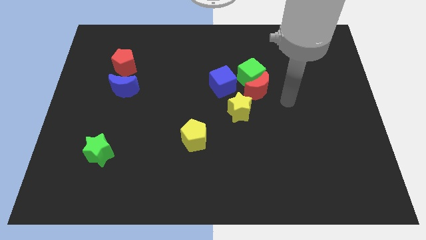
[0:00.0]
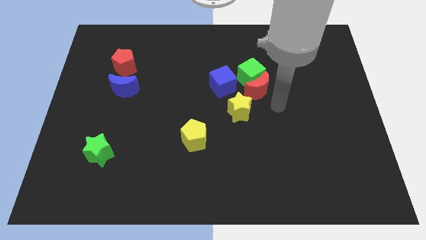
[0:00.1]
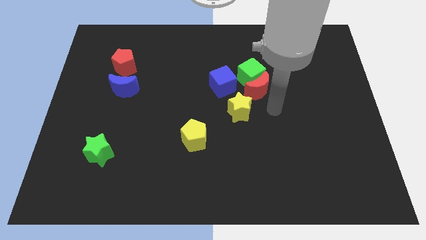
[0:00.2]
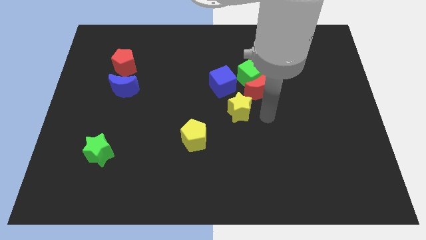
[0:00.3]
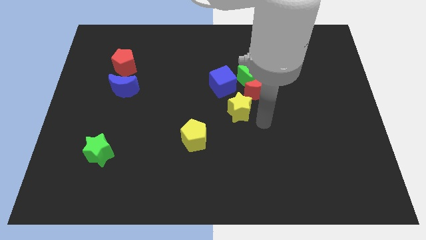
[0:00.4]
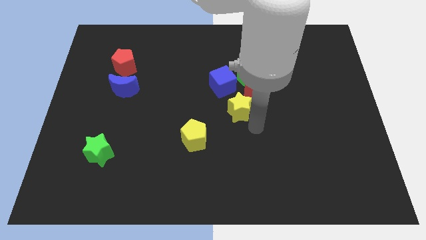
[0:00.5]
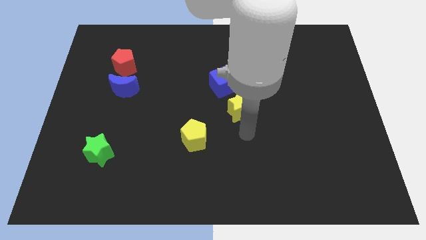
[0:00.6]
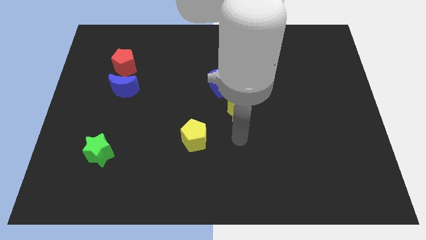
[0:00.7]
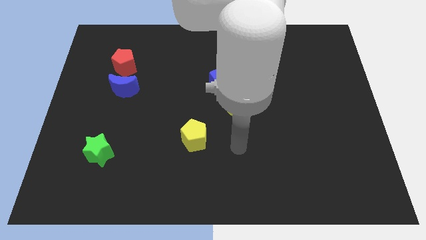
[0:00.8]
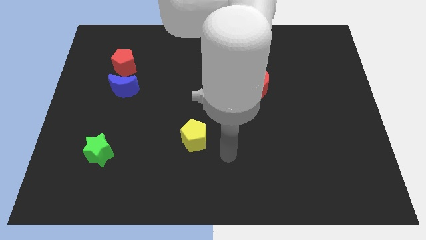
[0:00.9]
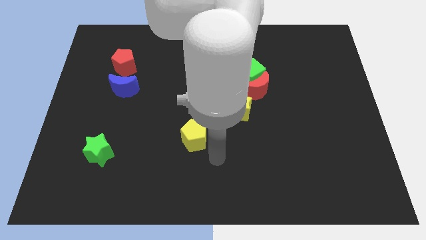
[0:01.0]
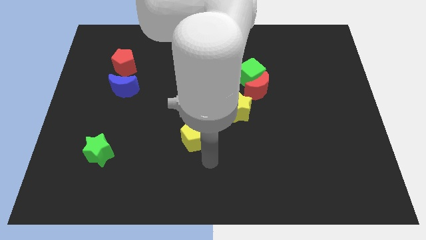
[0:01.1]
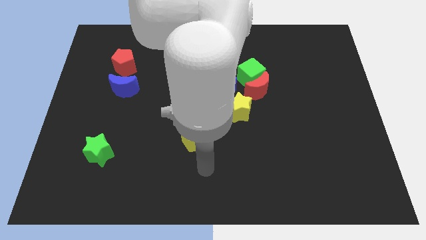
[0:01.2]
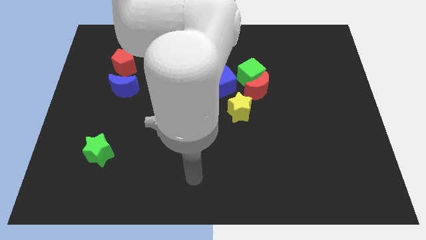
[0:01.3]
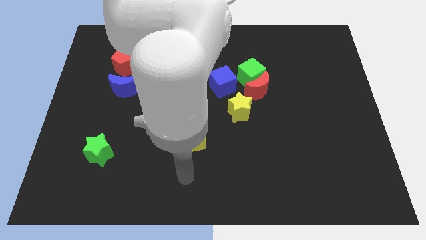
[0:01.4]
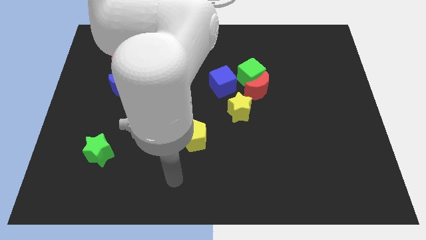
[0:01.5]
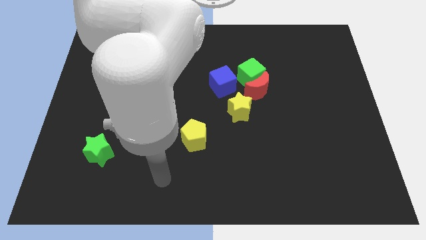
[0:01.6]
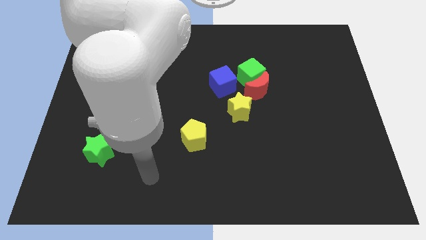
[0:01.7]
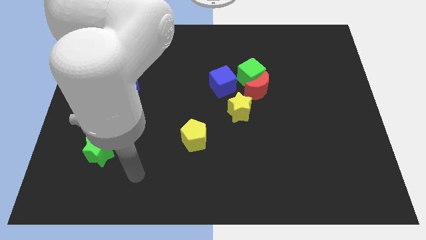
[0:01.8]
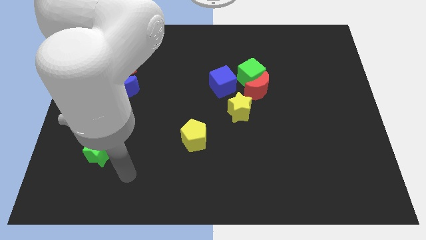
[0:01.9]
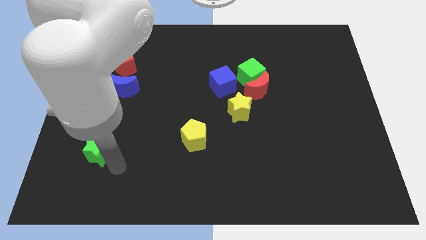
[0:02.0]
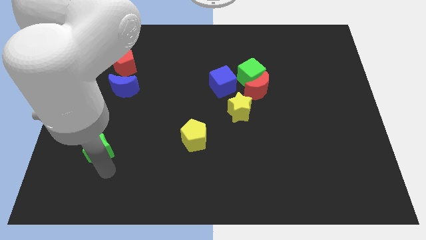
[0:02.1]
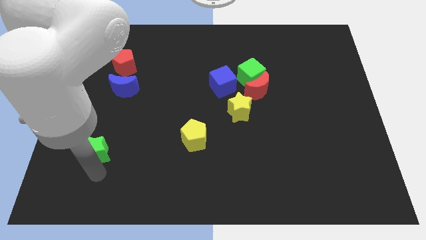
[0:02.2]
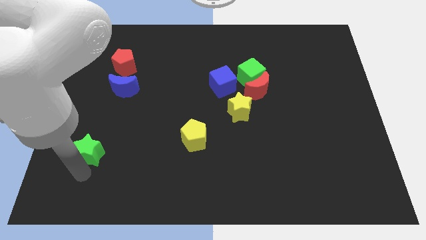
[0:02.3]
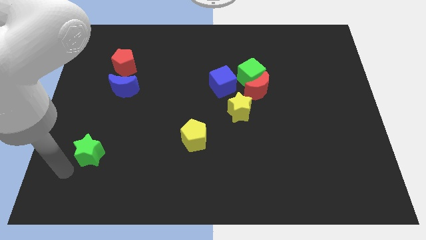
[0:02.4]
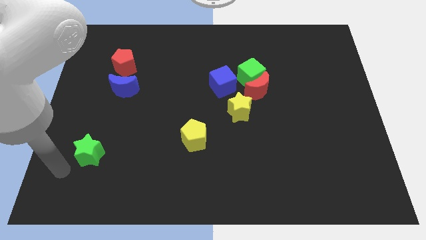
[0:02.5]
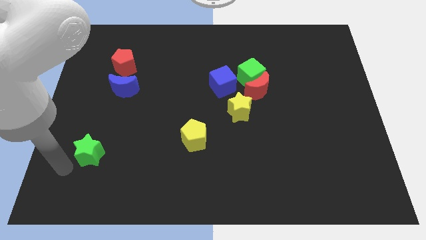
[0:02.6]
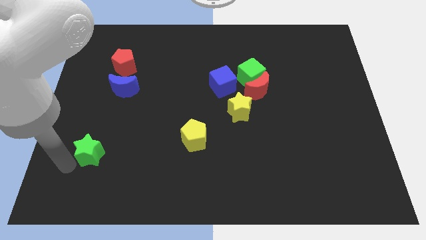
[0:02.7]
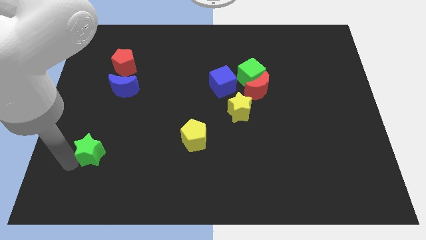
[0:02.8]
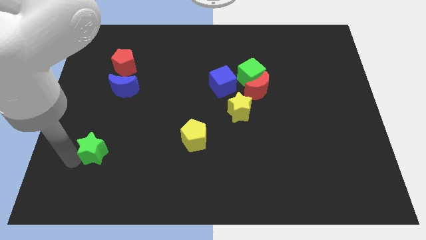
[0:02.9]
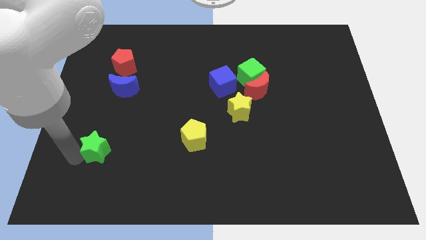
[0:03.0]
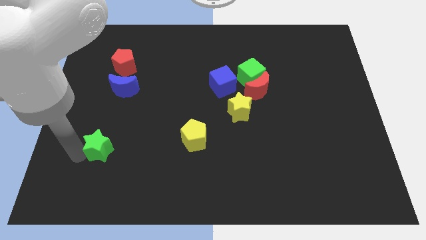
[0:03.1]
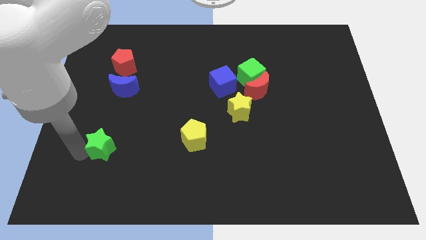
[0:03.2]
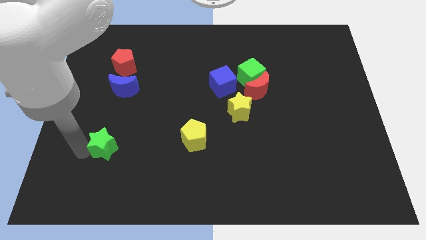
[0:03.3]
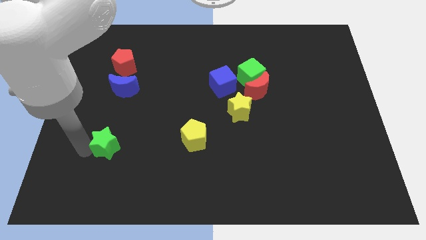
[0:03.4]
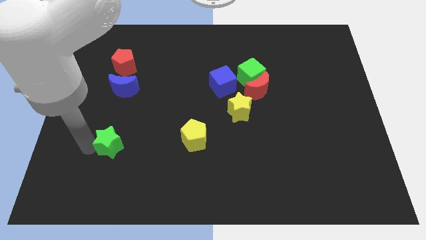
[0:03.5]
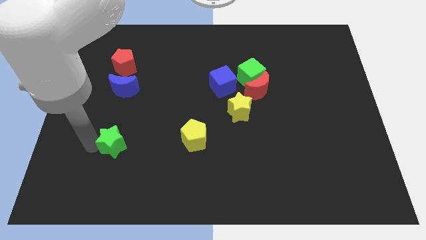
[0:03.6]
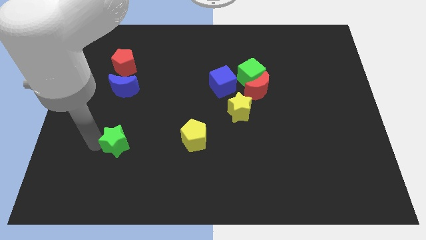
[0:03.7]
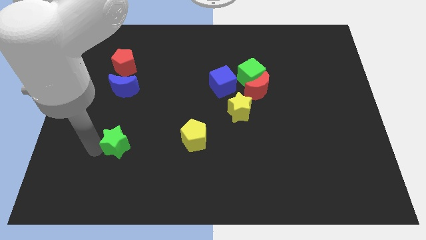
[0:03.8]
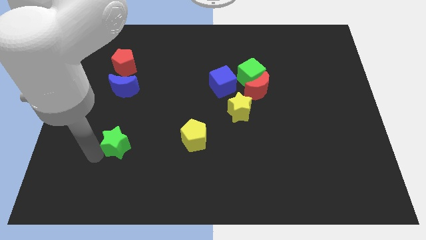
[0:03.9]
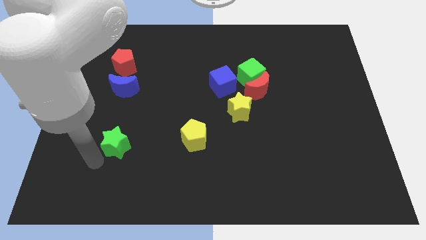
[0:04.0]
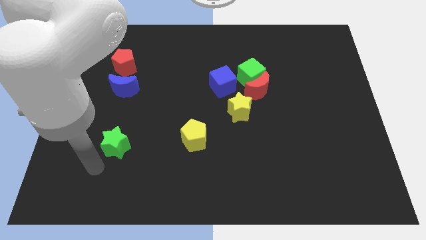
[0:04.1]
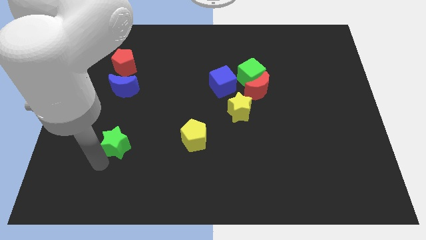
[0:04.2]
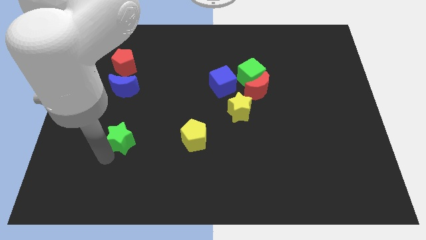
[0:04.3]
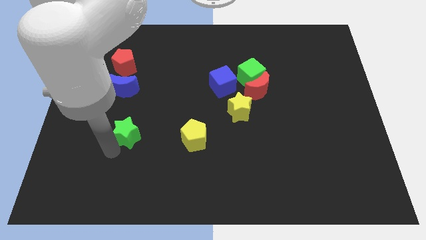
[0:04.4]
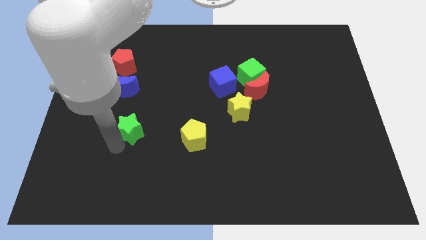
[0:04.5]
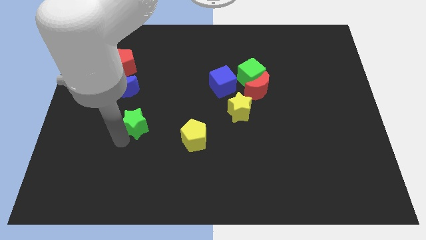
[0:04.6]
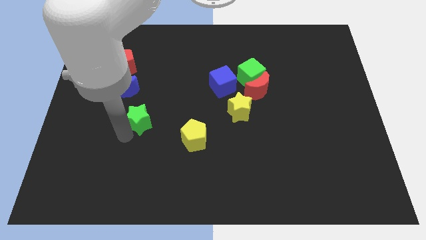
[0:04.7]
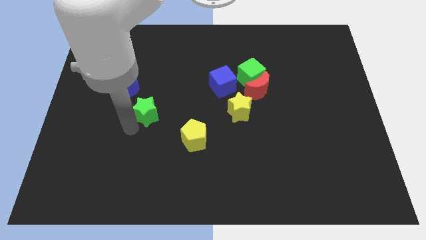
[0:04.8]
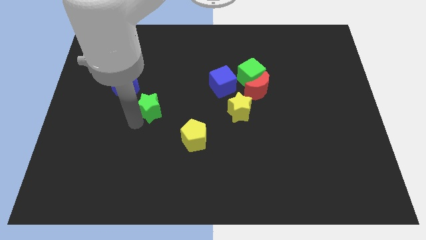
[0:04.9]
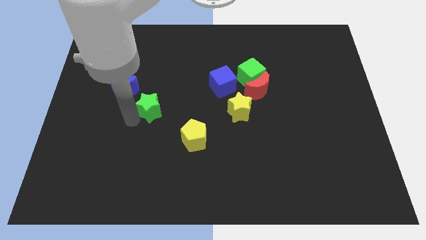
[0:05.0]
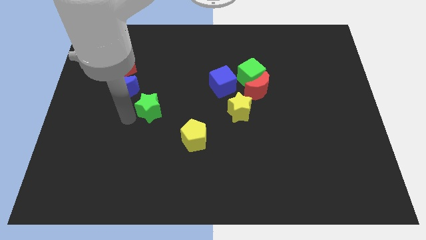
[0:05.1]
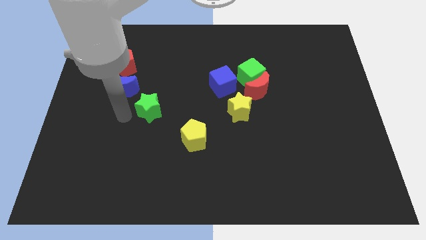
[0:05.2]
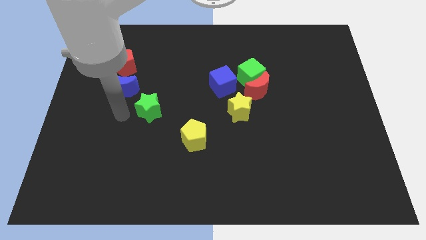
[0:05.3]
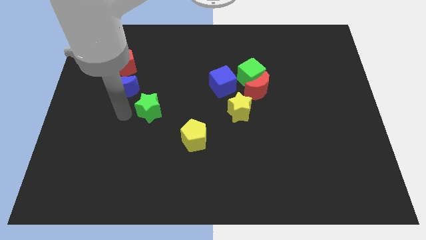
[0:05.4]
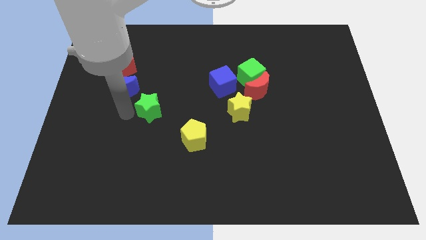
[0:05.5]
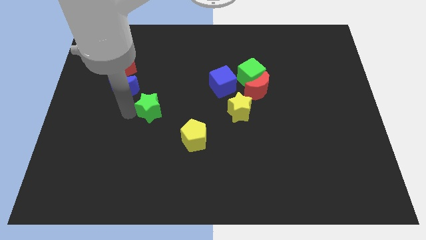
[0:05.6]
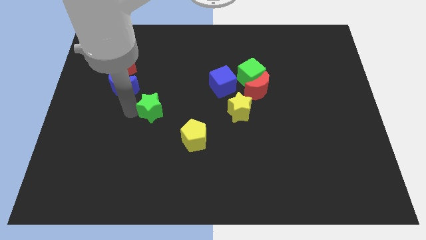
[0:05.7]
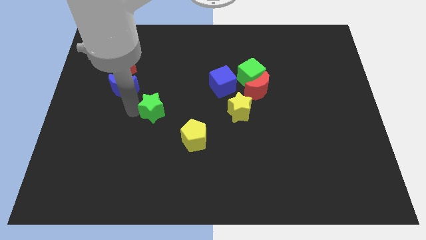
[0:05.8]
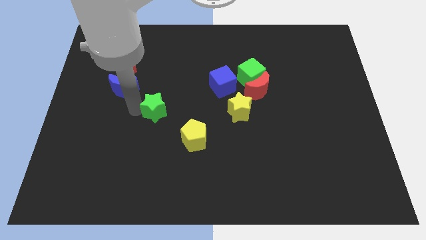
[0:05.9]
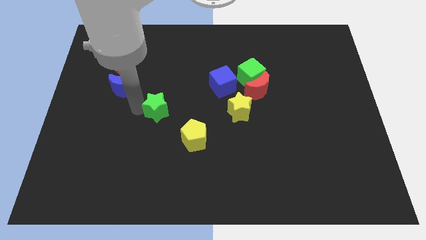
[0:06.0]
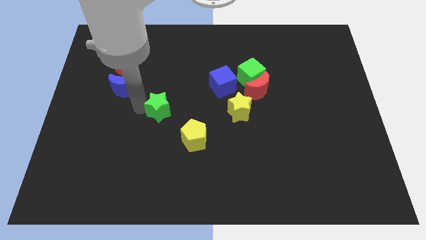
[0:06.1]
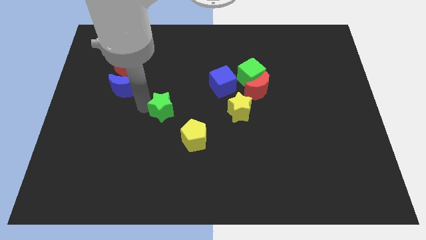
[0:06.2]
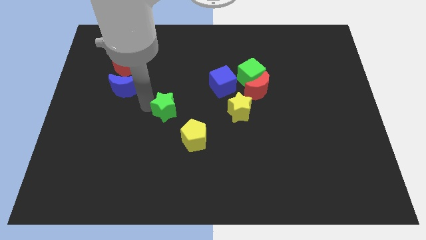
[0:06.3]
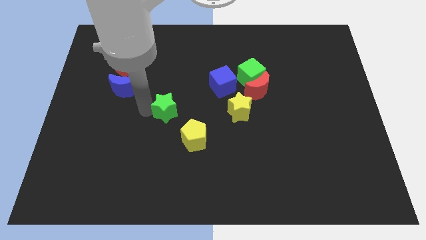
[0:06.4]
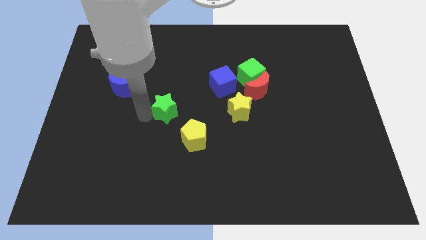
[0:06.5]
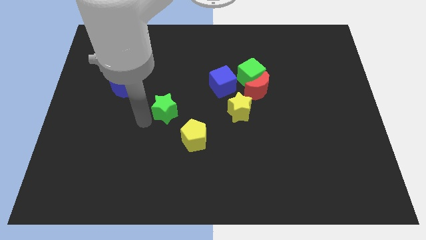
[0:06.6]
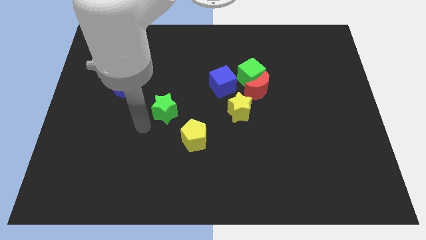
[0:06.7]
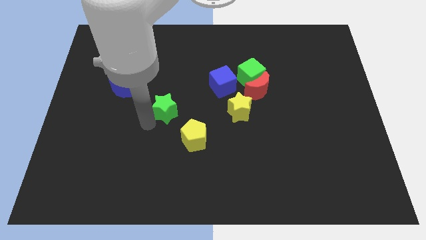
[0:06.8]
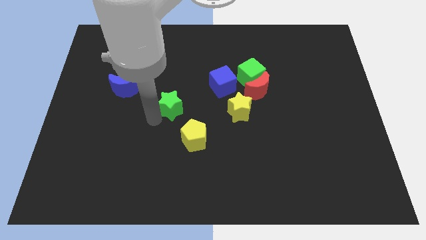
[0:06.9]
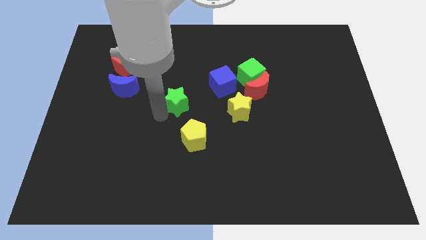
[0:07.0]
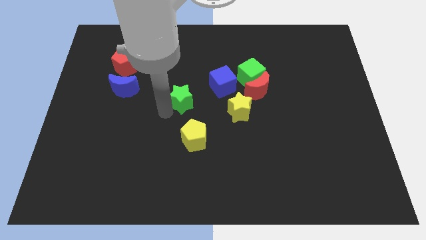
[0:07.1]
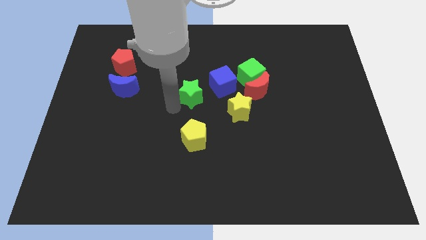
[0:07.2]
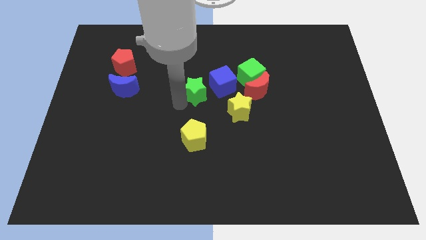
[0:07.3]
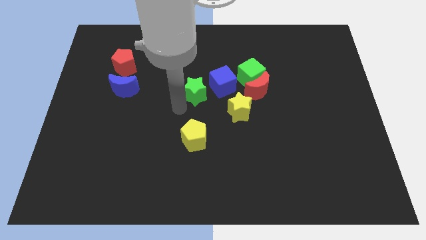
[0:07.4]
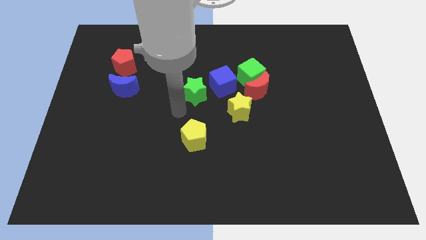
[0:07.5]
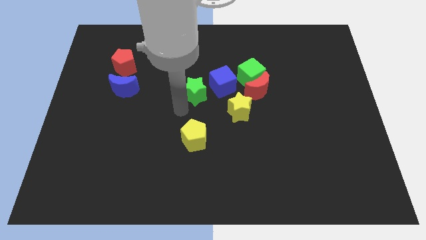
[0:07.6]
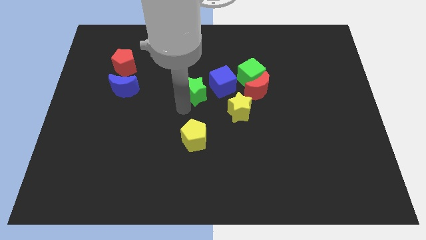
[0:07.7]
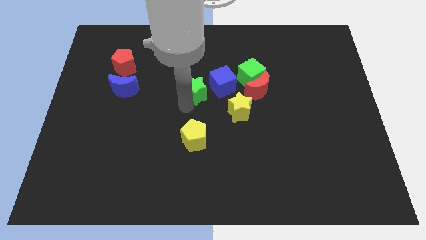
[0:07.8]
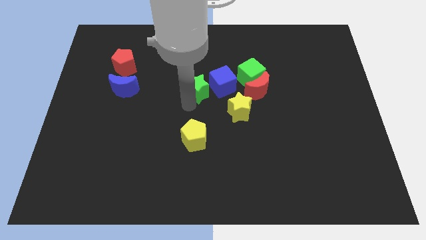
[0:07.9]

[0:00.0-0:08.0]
move the green star to the left side of the green cube
